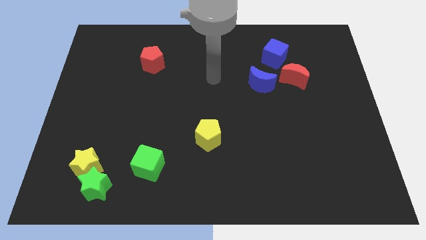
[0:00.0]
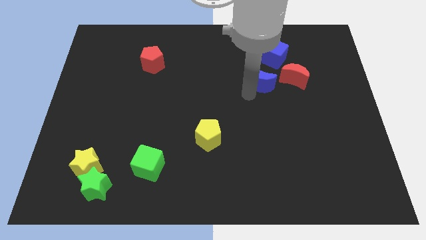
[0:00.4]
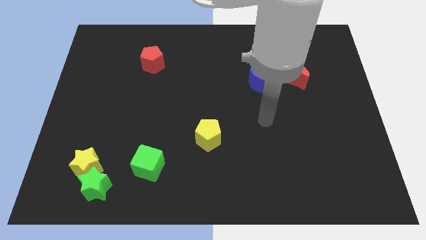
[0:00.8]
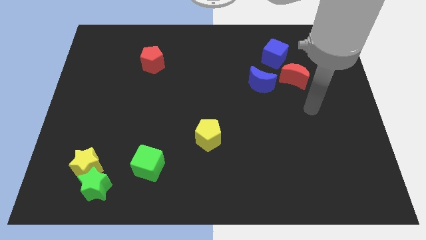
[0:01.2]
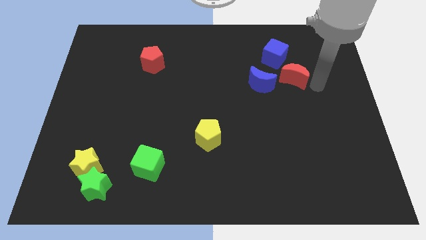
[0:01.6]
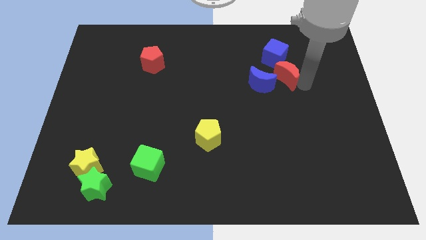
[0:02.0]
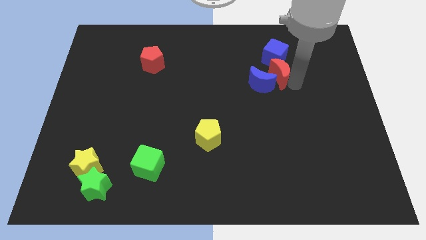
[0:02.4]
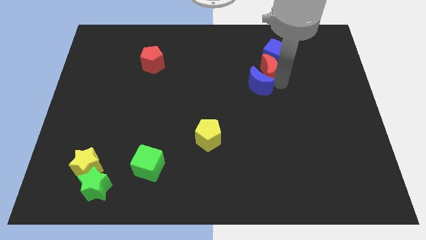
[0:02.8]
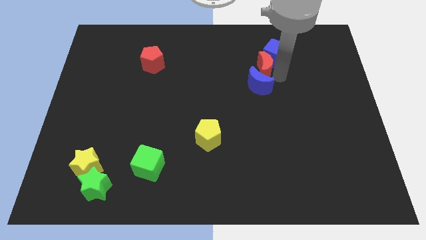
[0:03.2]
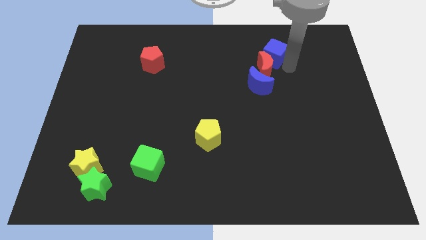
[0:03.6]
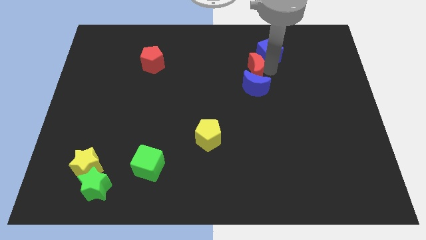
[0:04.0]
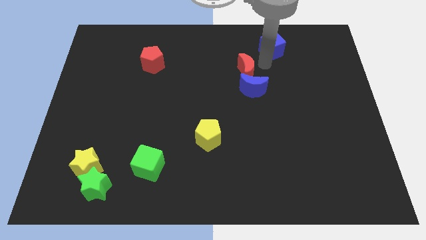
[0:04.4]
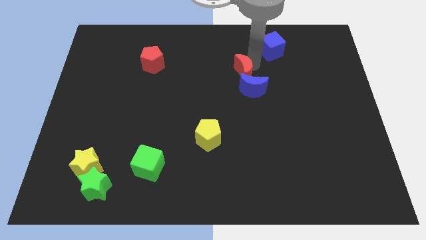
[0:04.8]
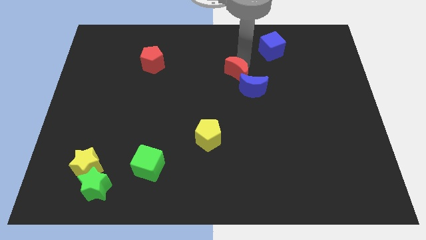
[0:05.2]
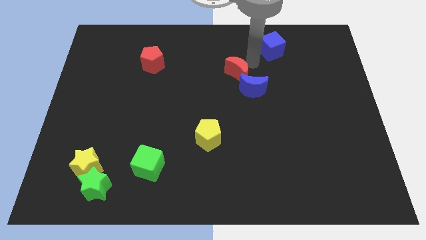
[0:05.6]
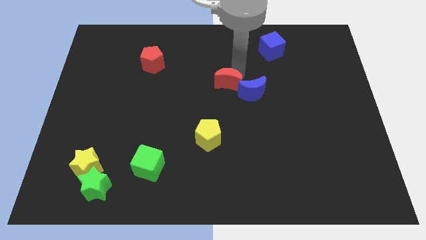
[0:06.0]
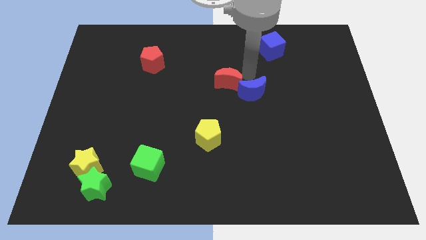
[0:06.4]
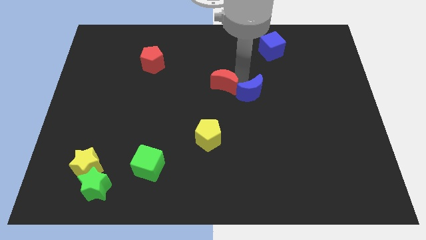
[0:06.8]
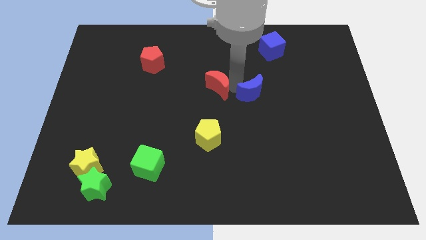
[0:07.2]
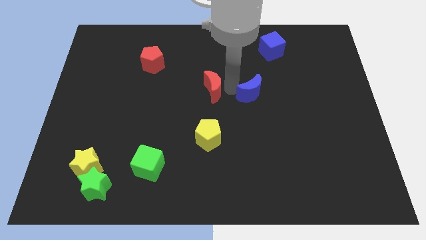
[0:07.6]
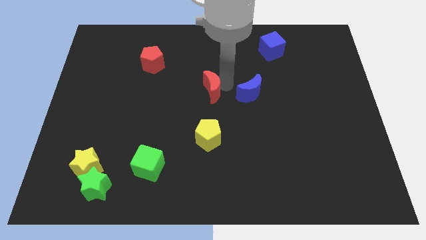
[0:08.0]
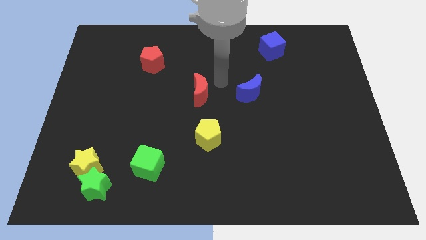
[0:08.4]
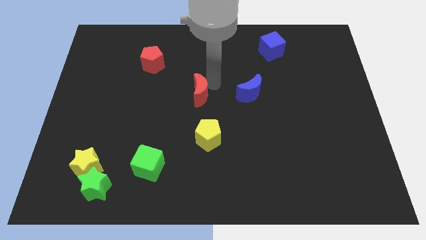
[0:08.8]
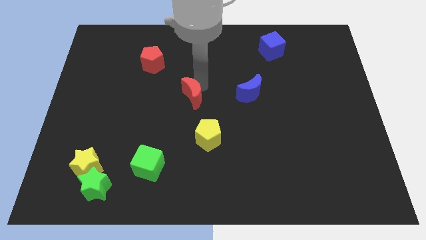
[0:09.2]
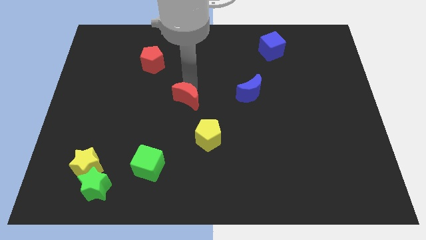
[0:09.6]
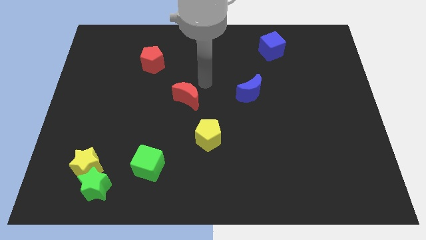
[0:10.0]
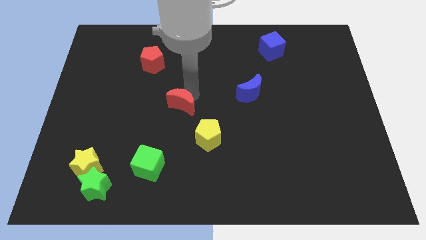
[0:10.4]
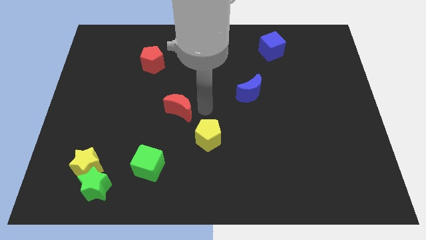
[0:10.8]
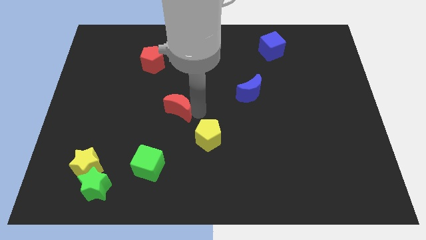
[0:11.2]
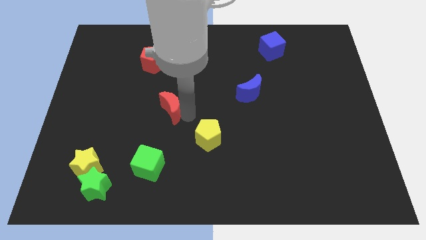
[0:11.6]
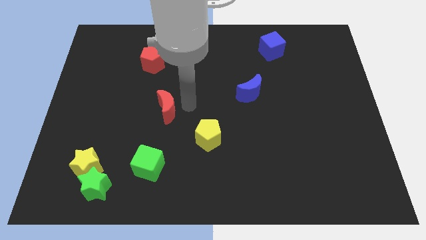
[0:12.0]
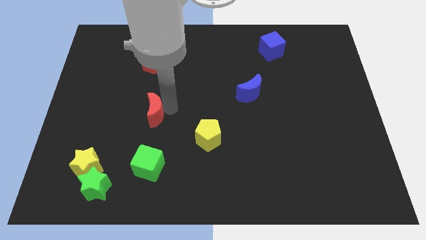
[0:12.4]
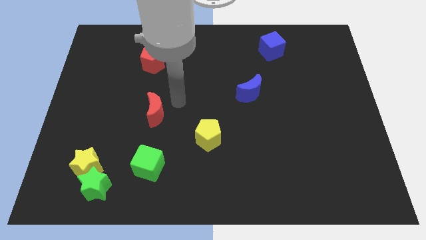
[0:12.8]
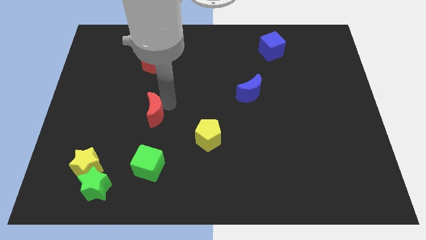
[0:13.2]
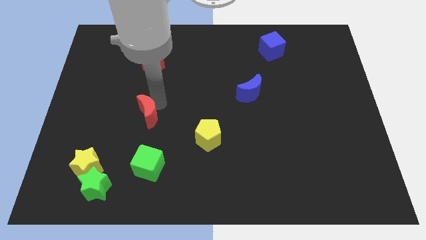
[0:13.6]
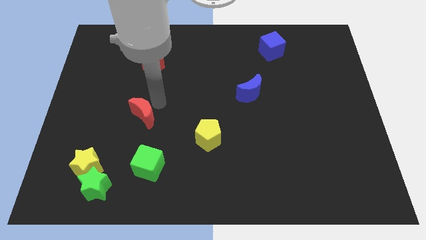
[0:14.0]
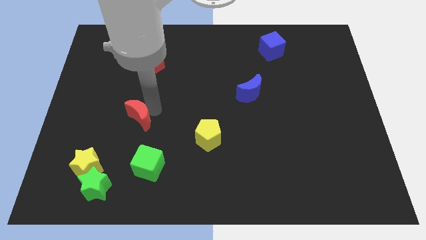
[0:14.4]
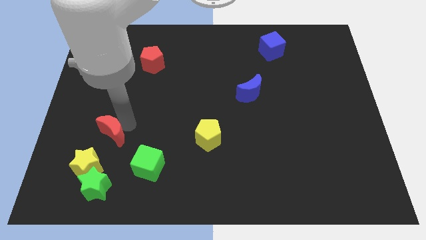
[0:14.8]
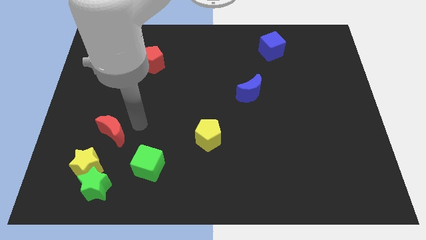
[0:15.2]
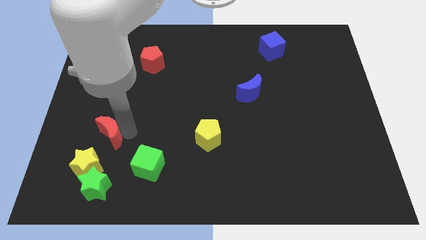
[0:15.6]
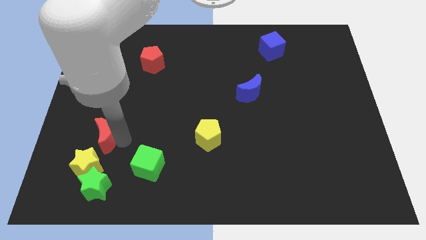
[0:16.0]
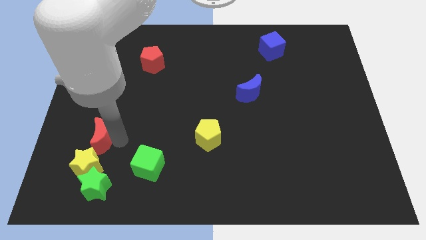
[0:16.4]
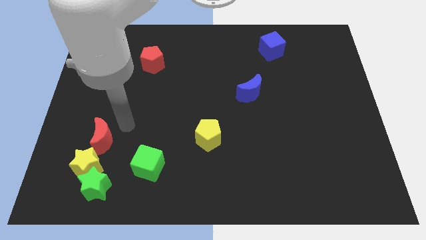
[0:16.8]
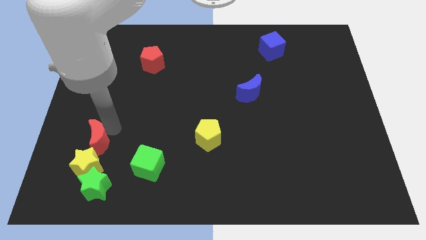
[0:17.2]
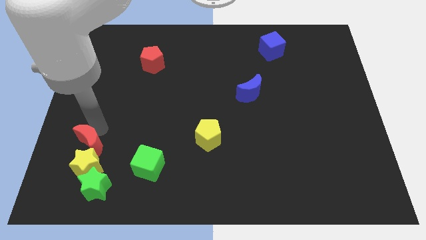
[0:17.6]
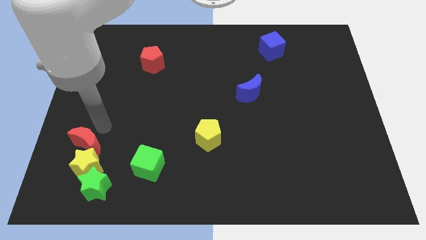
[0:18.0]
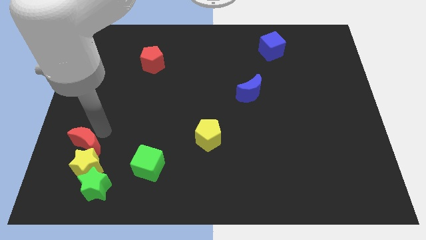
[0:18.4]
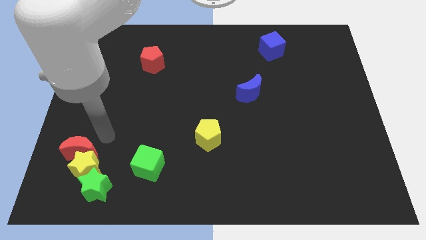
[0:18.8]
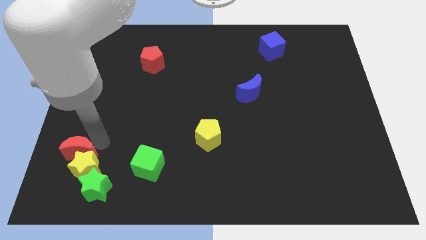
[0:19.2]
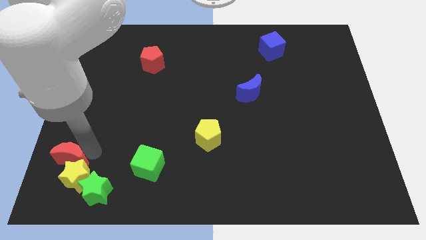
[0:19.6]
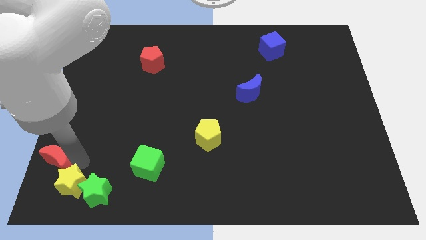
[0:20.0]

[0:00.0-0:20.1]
move the red moon to the lower left corner

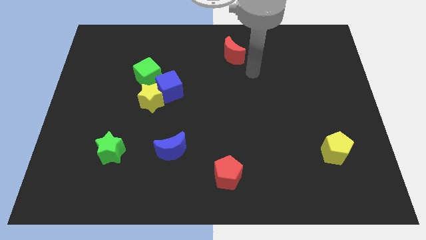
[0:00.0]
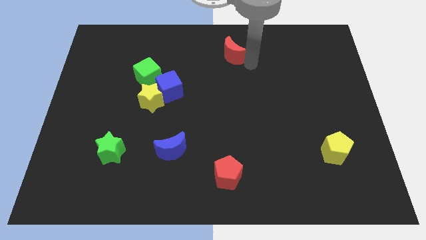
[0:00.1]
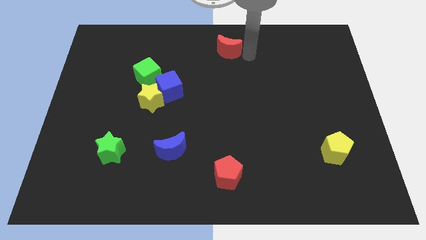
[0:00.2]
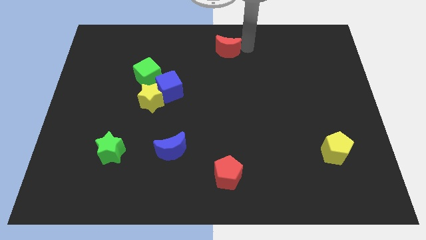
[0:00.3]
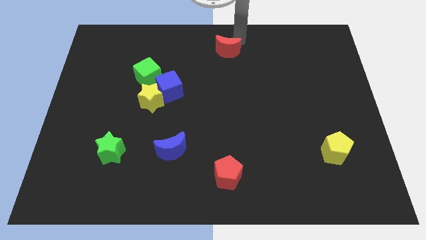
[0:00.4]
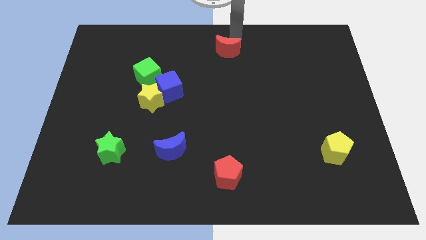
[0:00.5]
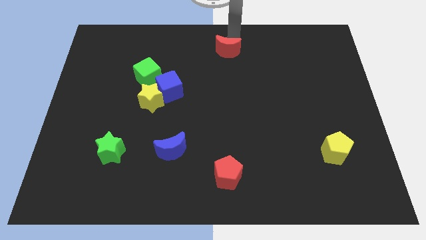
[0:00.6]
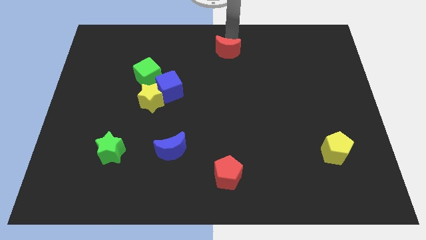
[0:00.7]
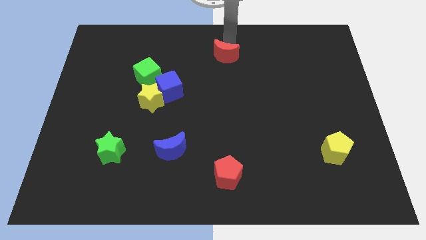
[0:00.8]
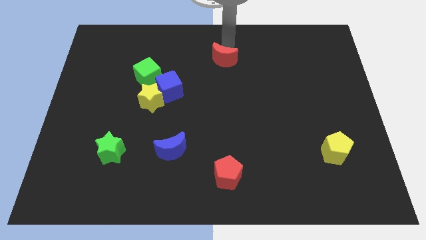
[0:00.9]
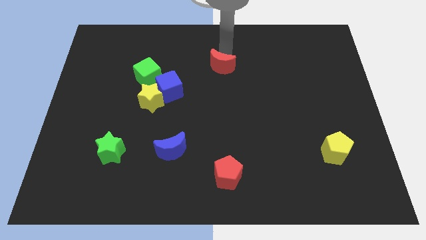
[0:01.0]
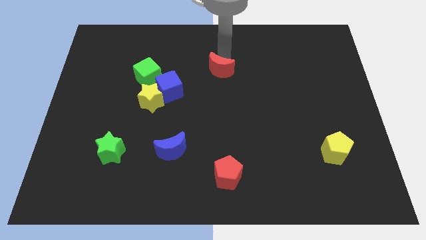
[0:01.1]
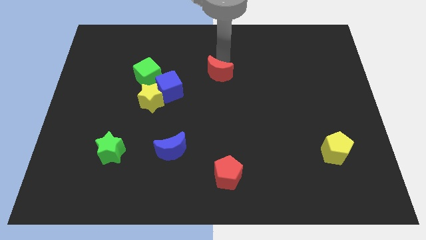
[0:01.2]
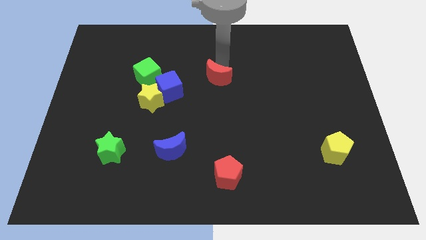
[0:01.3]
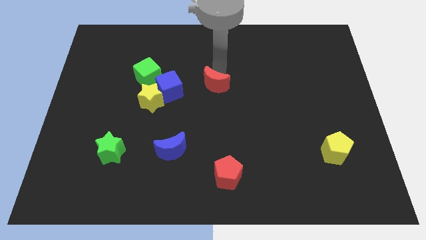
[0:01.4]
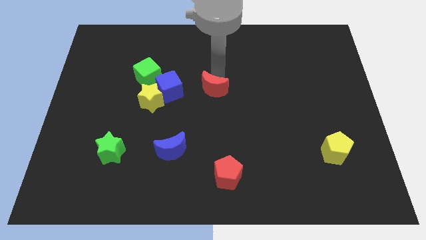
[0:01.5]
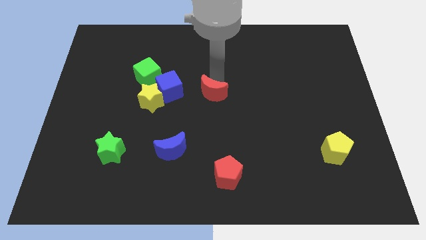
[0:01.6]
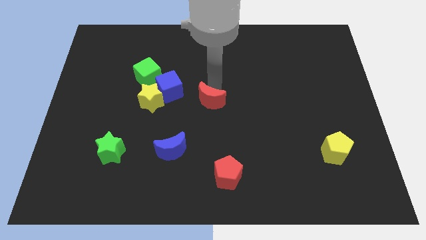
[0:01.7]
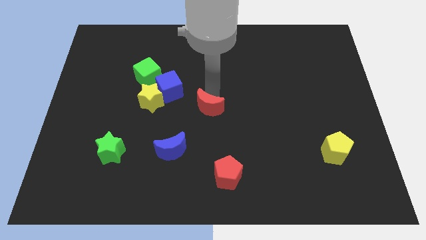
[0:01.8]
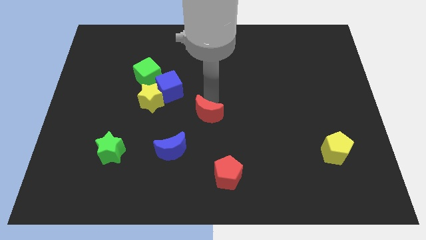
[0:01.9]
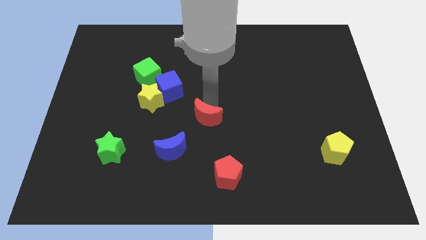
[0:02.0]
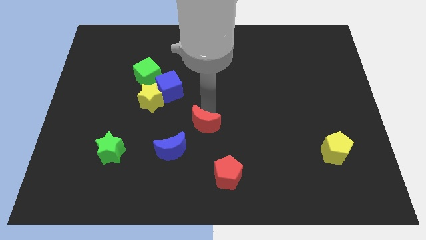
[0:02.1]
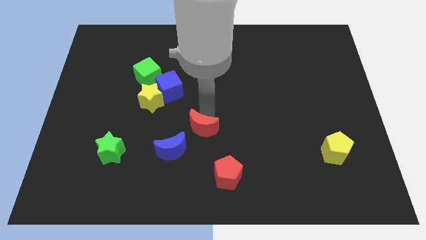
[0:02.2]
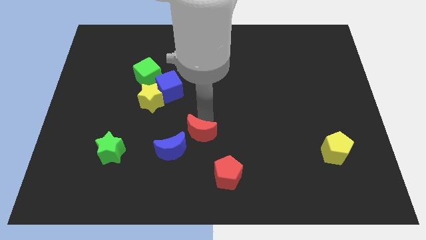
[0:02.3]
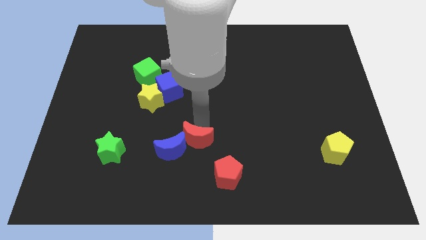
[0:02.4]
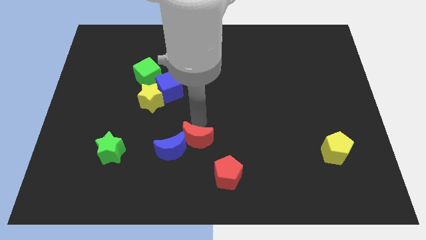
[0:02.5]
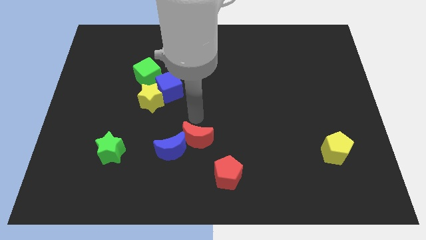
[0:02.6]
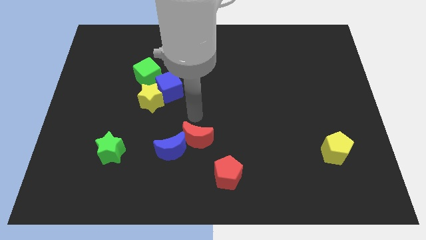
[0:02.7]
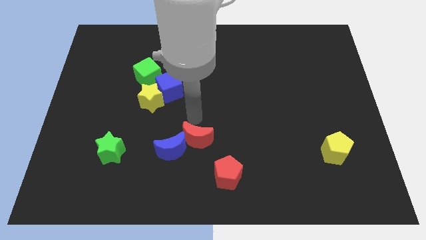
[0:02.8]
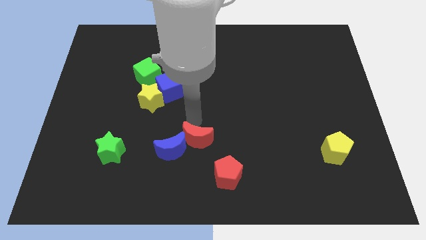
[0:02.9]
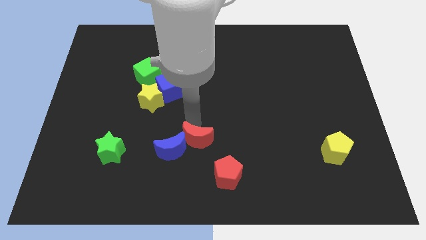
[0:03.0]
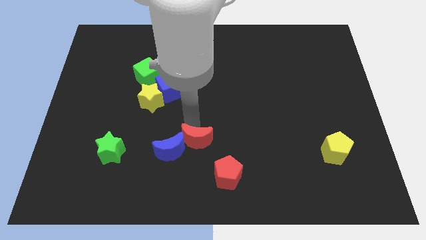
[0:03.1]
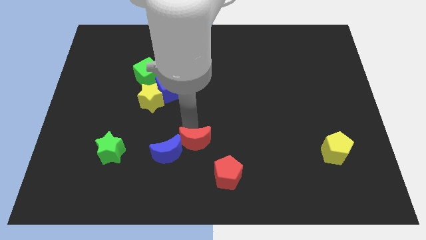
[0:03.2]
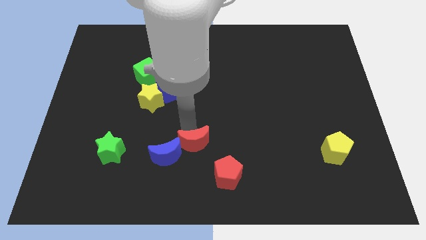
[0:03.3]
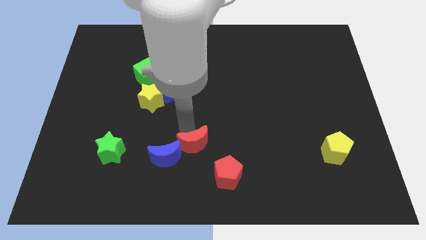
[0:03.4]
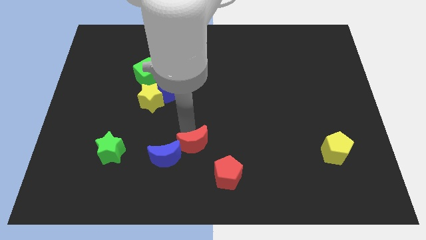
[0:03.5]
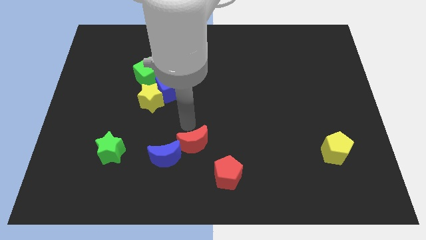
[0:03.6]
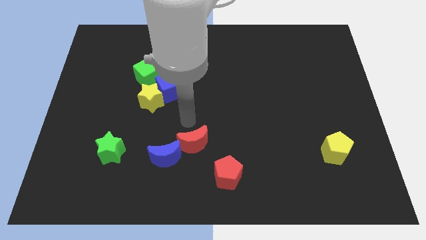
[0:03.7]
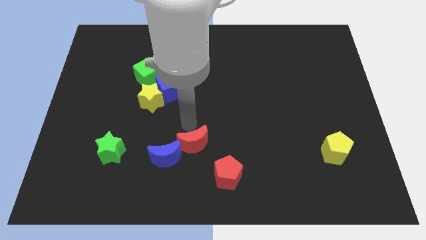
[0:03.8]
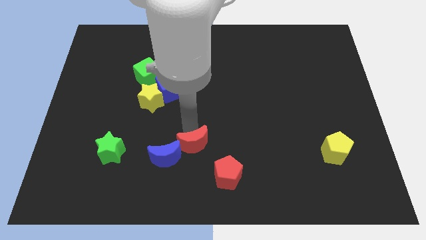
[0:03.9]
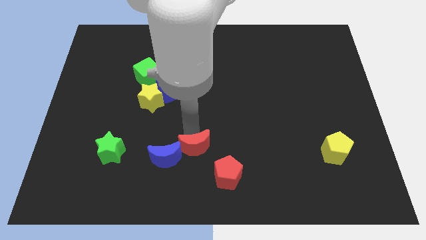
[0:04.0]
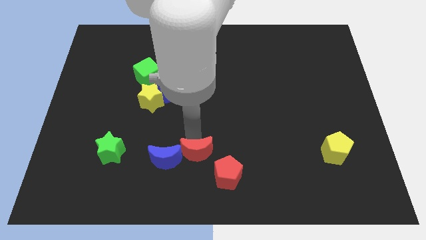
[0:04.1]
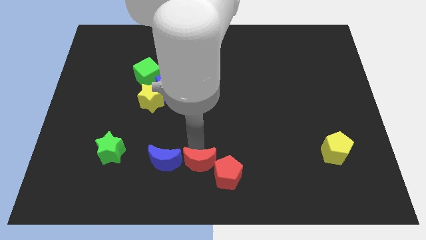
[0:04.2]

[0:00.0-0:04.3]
push the red moon to the bottom
